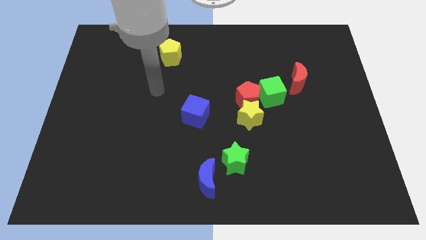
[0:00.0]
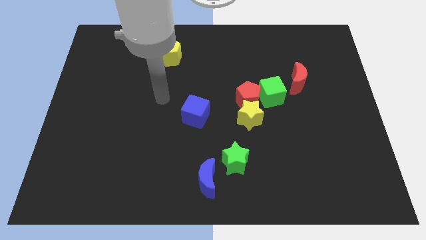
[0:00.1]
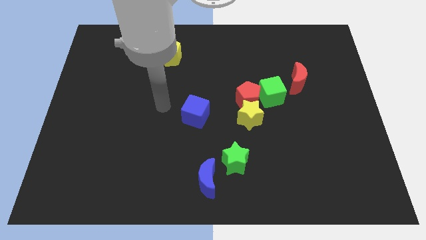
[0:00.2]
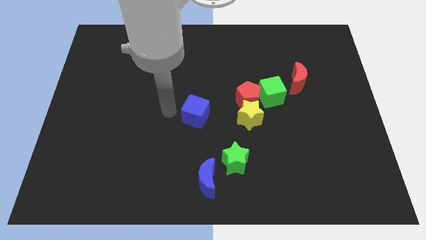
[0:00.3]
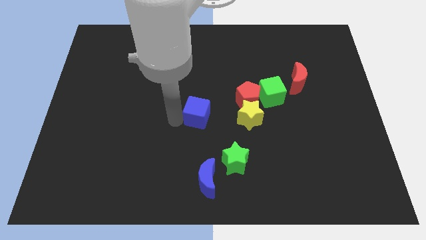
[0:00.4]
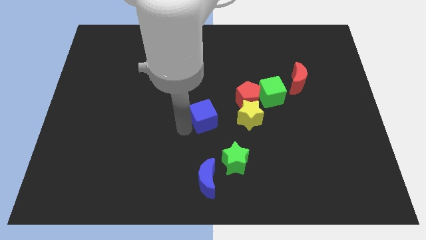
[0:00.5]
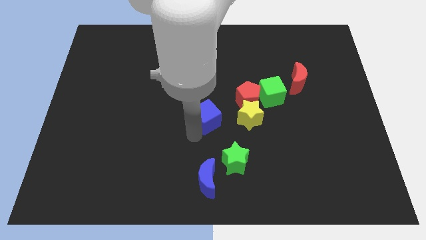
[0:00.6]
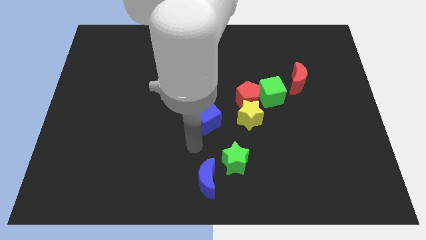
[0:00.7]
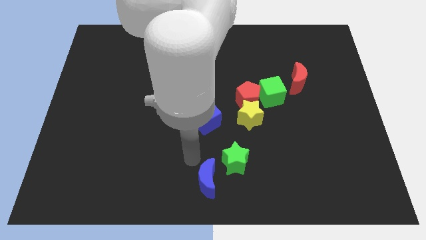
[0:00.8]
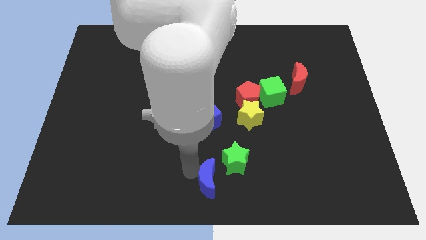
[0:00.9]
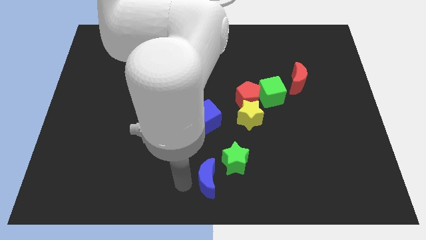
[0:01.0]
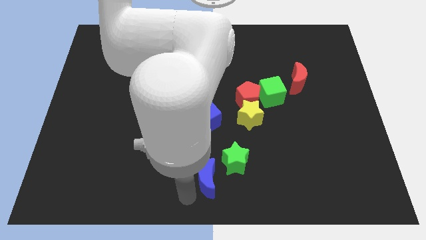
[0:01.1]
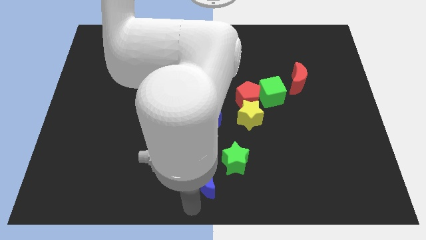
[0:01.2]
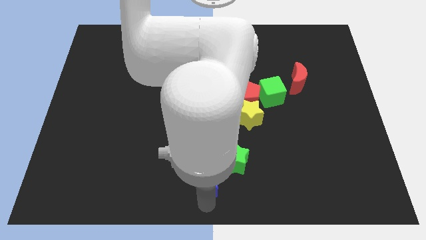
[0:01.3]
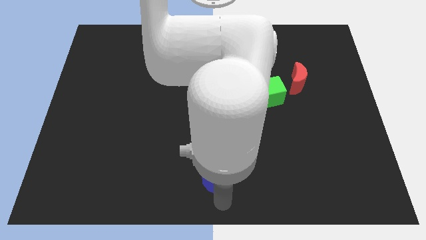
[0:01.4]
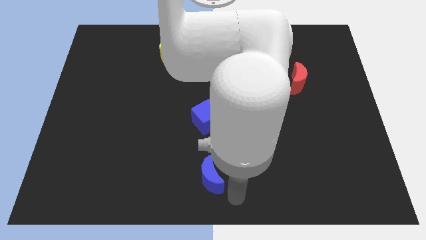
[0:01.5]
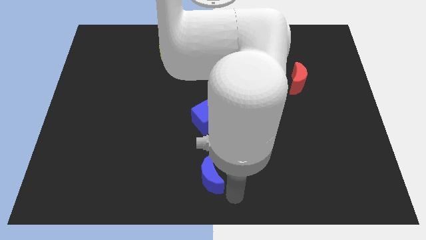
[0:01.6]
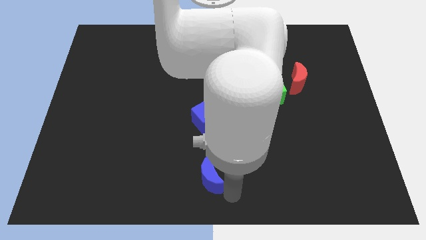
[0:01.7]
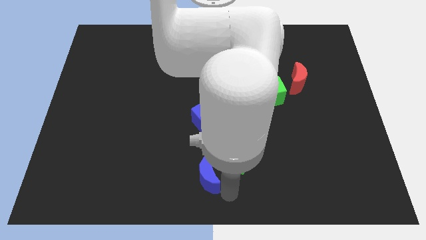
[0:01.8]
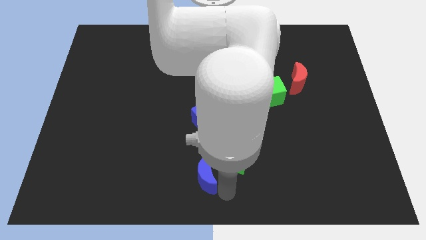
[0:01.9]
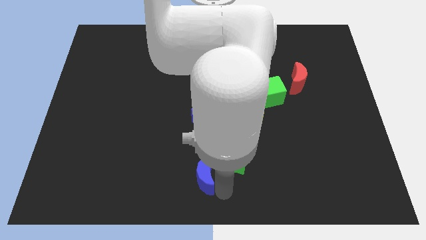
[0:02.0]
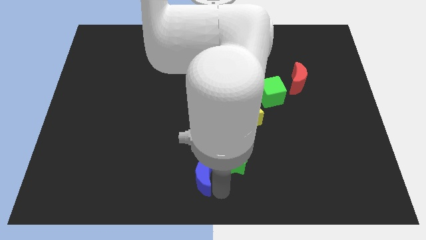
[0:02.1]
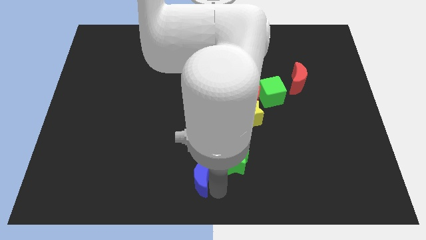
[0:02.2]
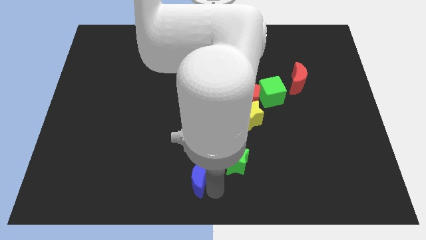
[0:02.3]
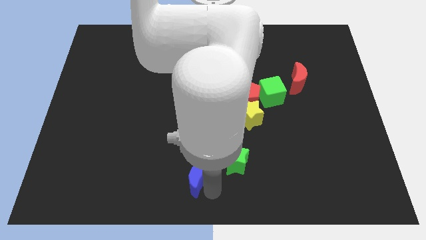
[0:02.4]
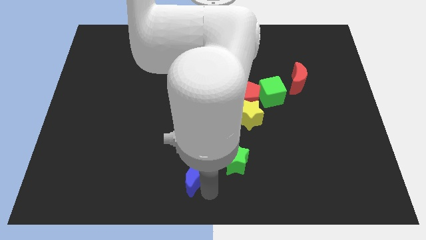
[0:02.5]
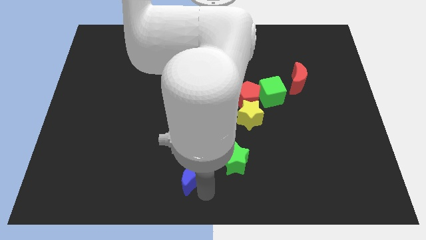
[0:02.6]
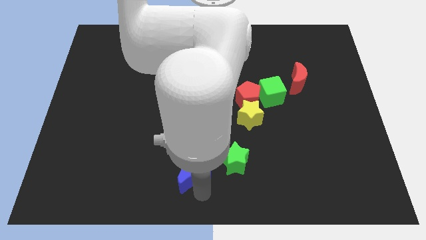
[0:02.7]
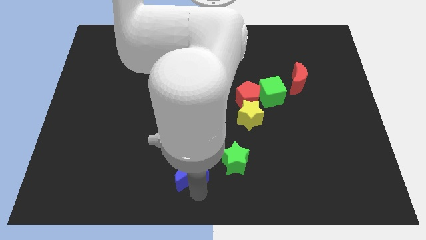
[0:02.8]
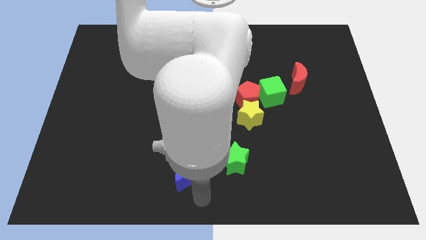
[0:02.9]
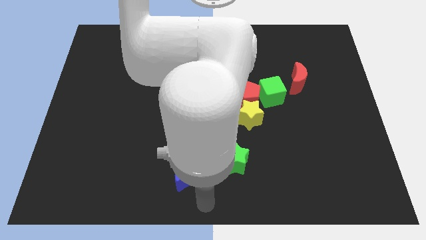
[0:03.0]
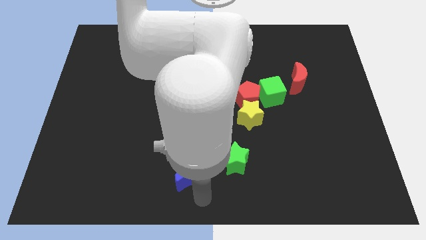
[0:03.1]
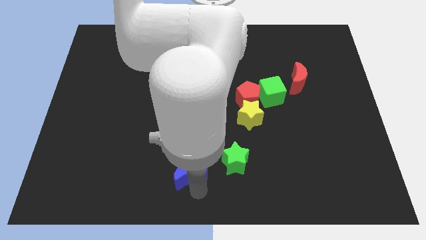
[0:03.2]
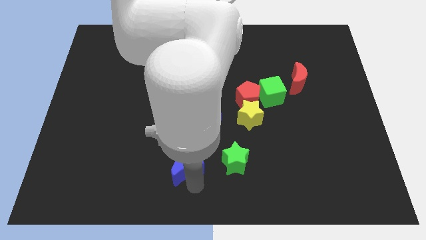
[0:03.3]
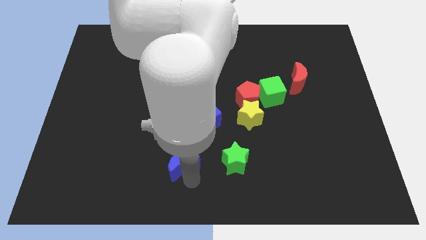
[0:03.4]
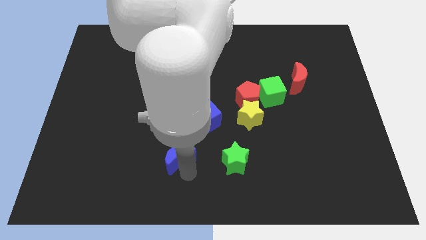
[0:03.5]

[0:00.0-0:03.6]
push the blue moon a bit up and to the left diagonally

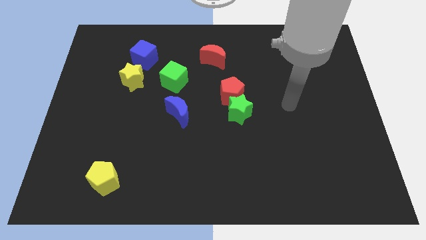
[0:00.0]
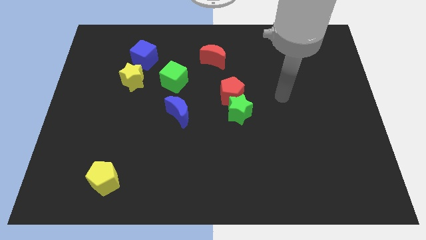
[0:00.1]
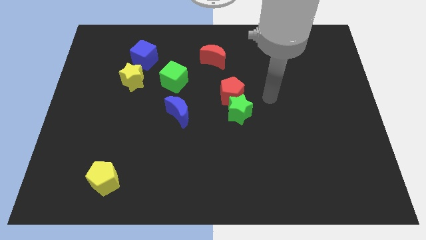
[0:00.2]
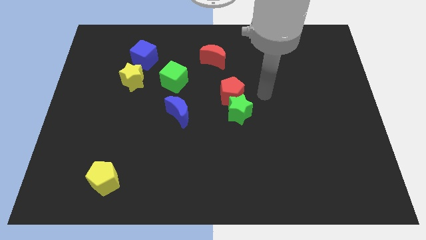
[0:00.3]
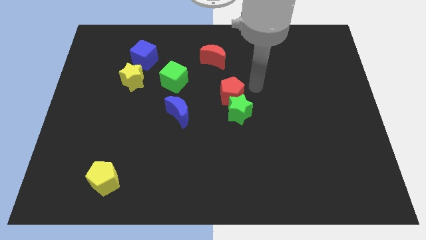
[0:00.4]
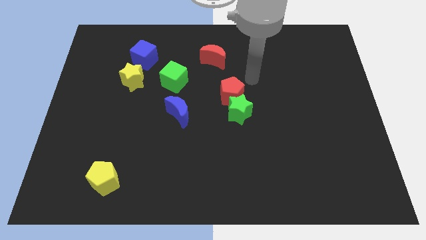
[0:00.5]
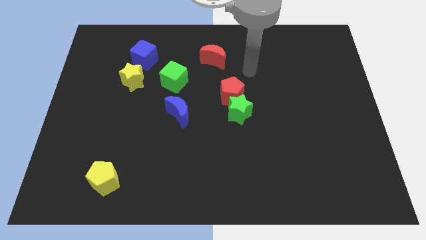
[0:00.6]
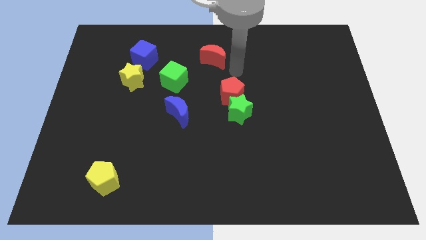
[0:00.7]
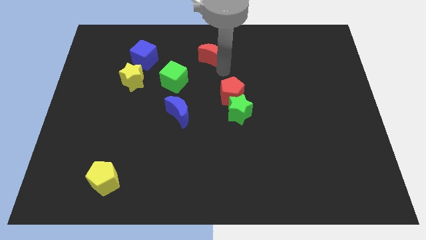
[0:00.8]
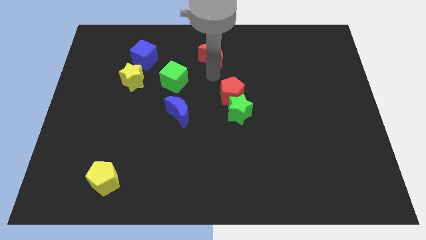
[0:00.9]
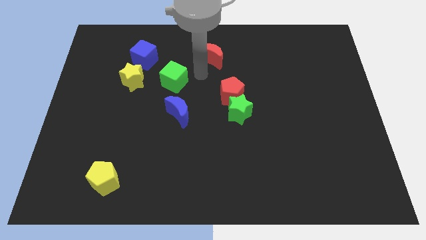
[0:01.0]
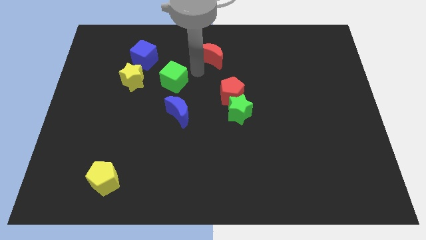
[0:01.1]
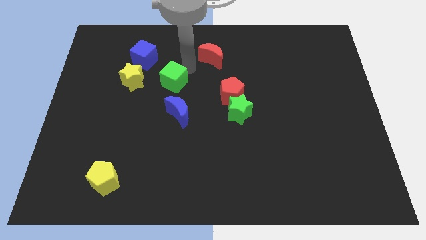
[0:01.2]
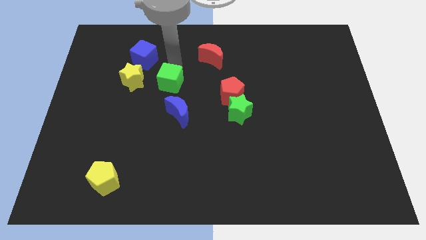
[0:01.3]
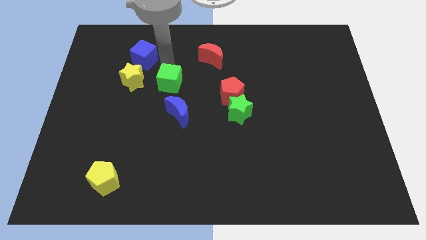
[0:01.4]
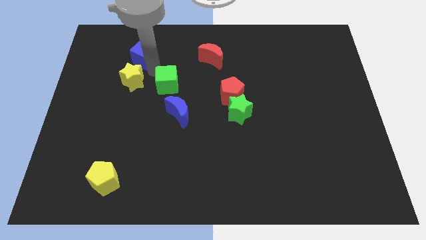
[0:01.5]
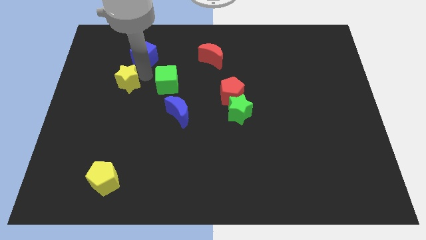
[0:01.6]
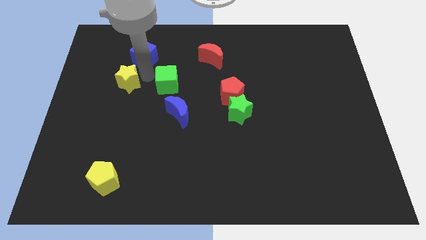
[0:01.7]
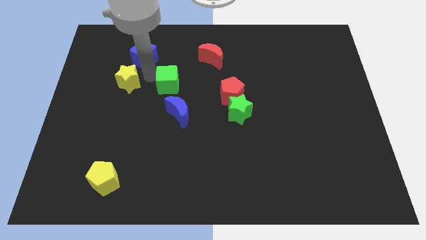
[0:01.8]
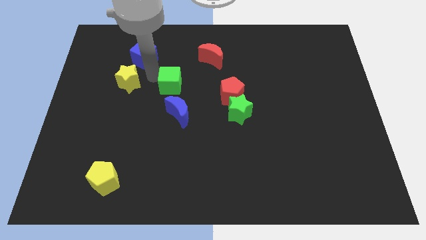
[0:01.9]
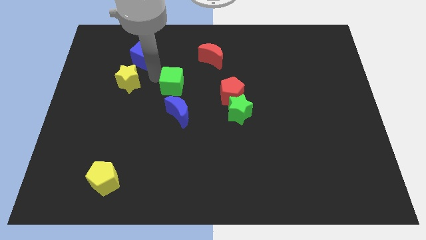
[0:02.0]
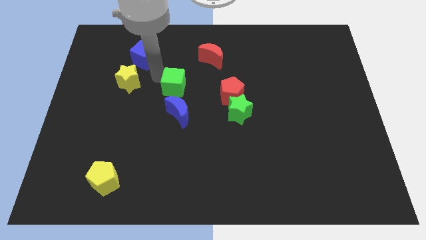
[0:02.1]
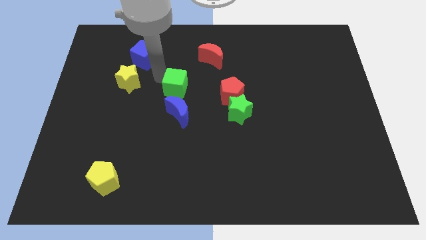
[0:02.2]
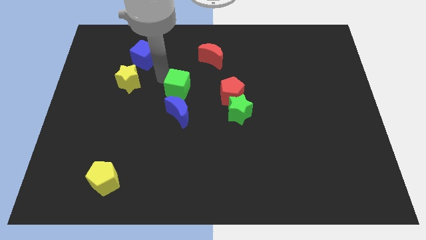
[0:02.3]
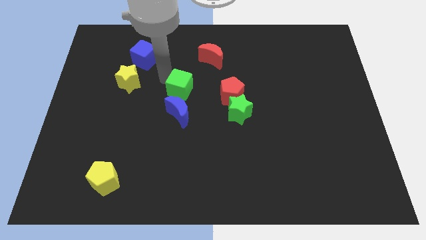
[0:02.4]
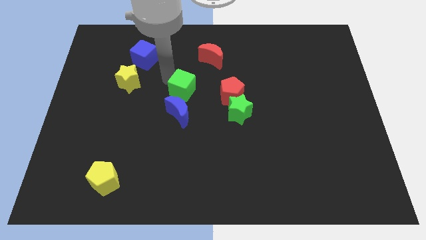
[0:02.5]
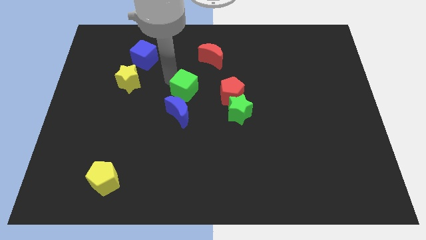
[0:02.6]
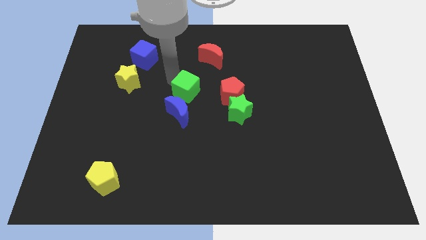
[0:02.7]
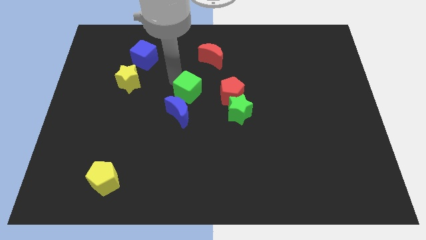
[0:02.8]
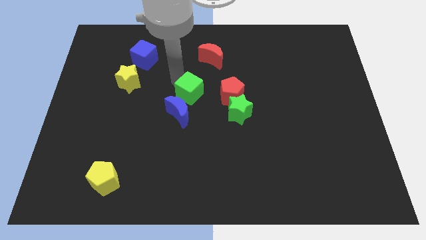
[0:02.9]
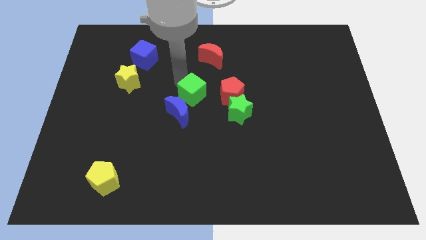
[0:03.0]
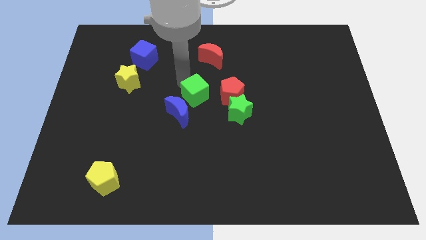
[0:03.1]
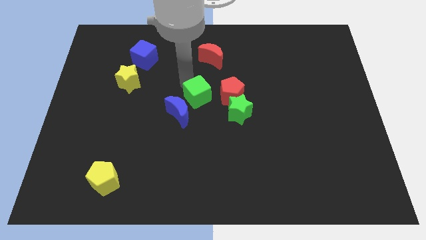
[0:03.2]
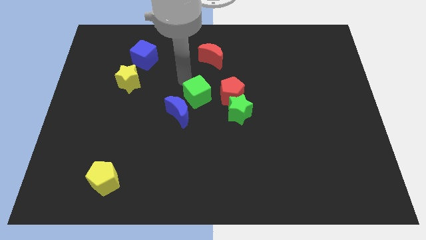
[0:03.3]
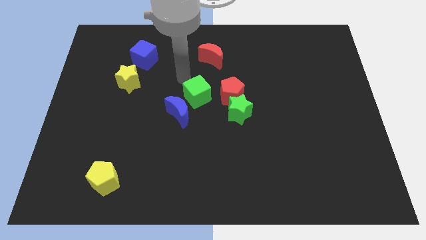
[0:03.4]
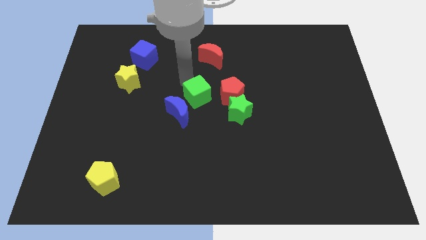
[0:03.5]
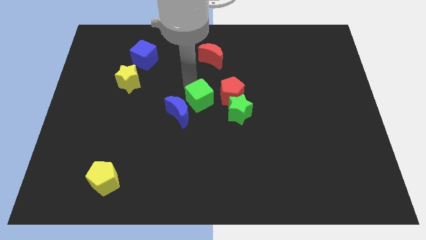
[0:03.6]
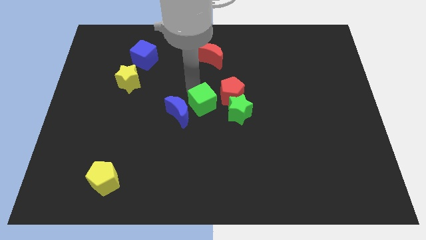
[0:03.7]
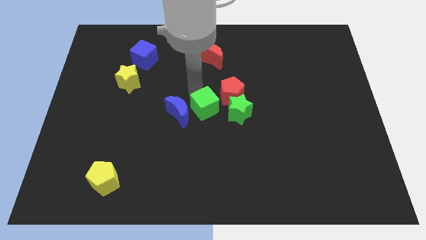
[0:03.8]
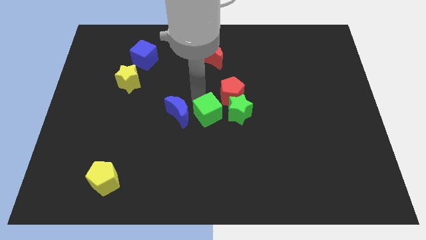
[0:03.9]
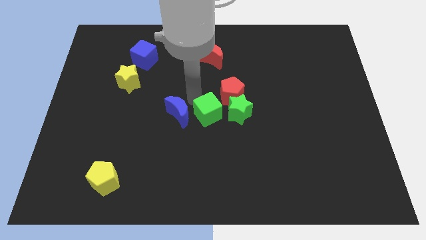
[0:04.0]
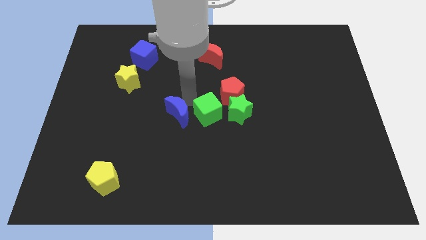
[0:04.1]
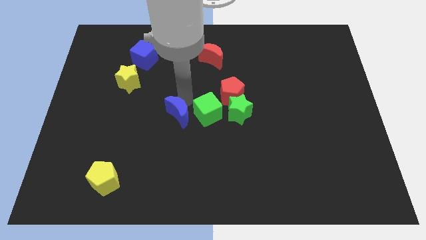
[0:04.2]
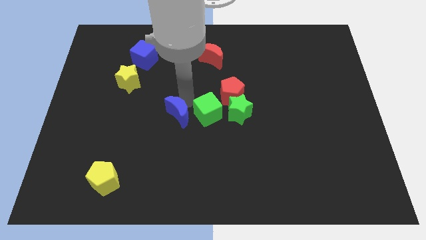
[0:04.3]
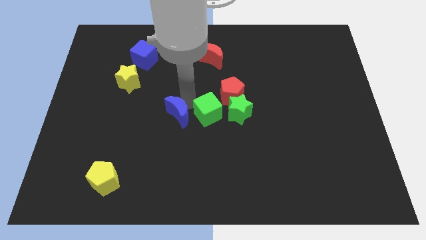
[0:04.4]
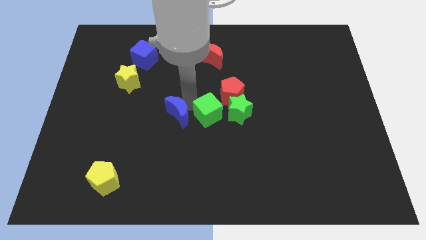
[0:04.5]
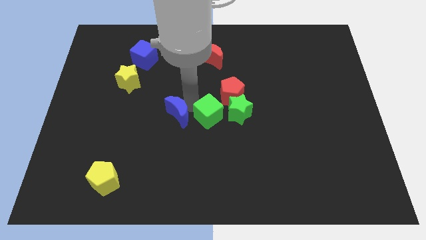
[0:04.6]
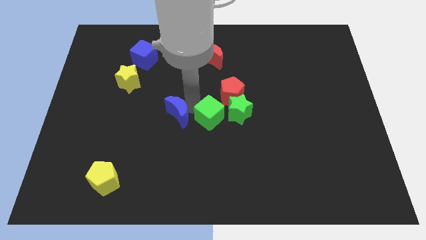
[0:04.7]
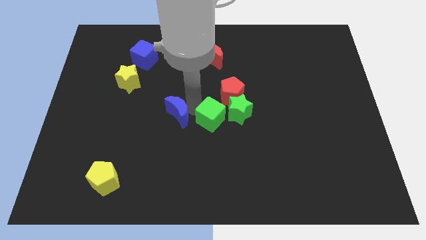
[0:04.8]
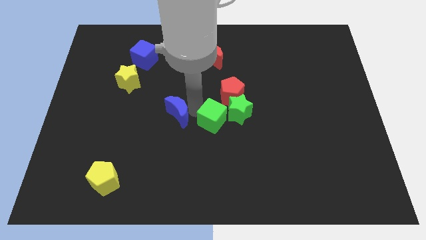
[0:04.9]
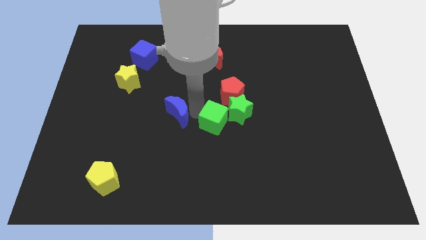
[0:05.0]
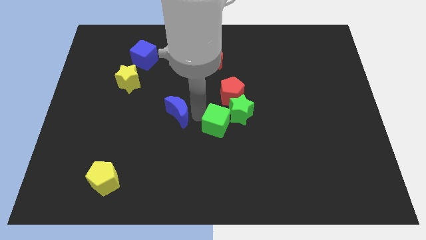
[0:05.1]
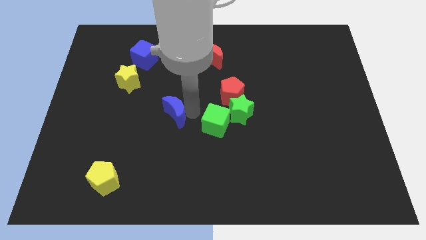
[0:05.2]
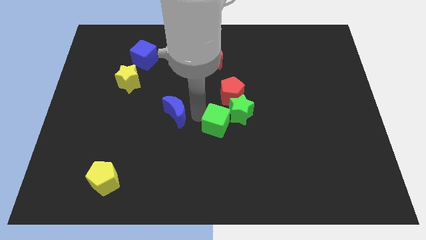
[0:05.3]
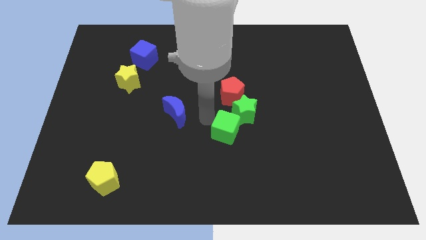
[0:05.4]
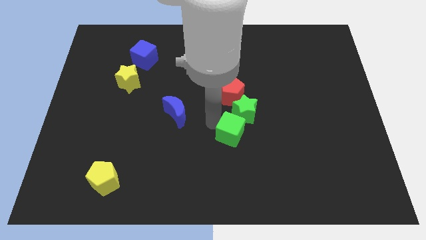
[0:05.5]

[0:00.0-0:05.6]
move the green cube down and then right
